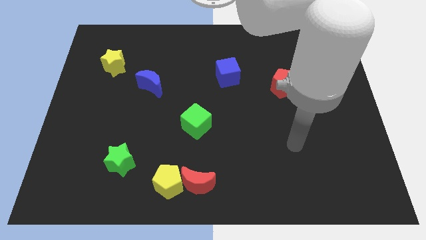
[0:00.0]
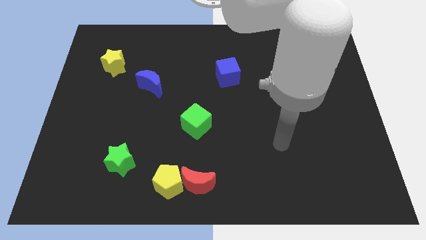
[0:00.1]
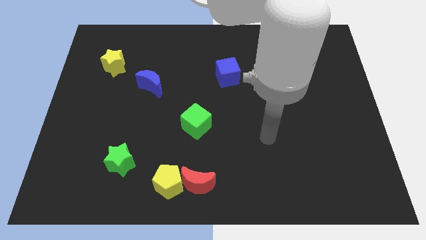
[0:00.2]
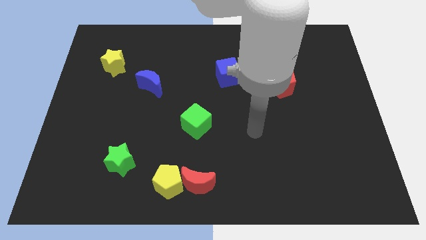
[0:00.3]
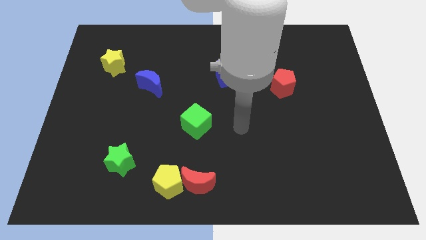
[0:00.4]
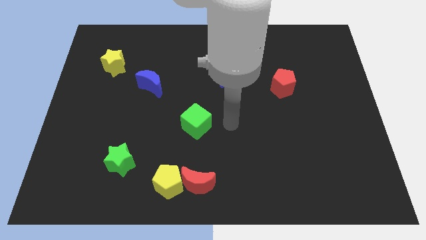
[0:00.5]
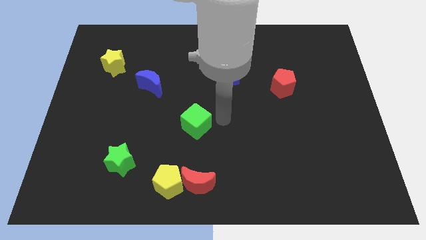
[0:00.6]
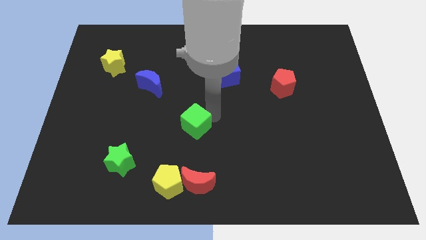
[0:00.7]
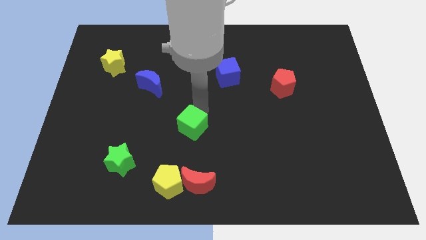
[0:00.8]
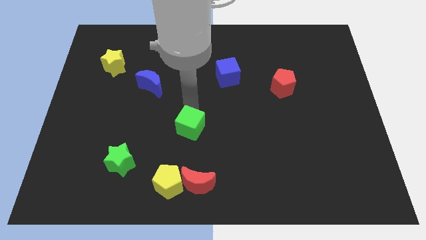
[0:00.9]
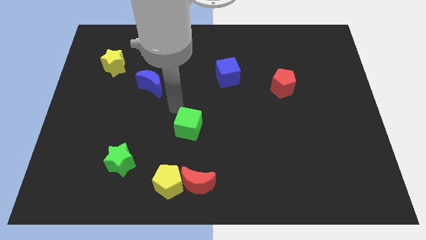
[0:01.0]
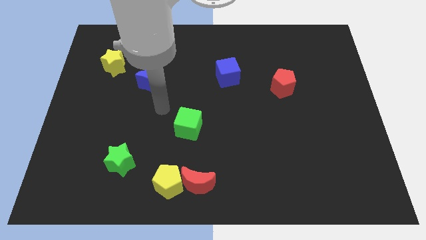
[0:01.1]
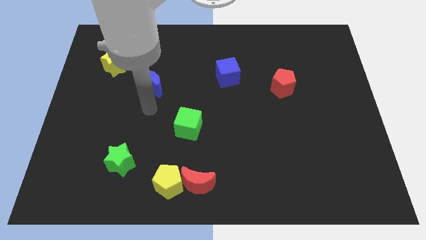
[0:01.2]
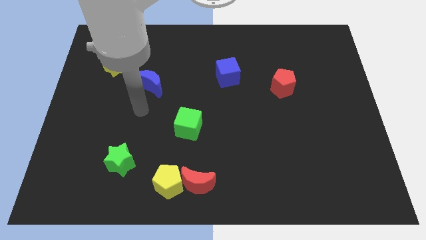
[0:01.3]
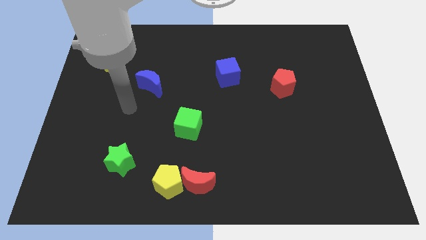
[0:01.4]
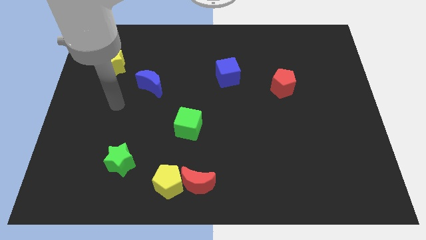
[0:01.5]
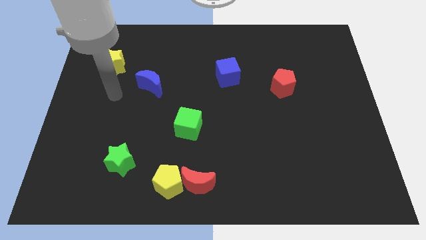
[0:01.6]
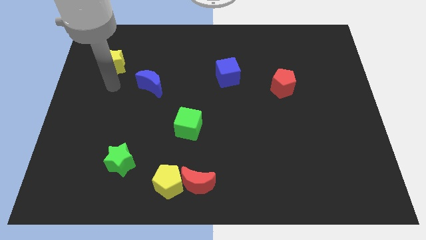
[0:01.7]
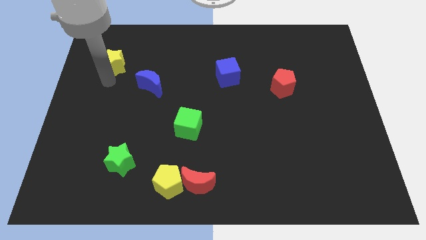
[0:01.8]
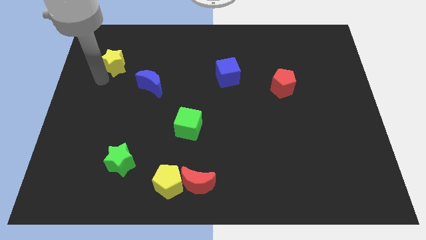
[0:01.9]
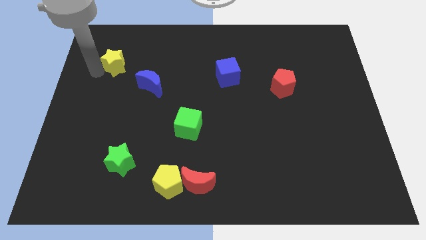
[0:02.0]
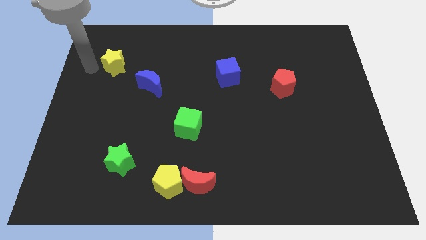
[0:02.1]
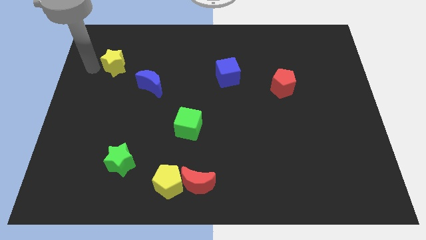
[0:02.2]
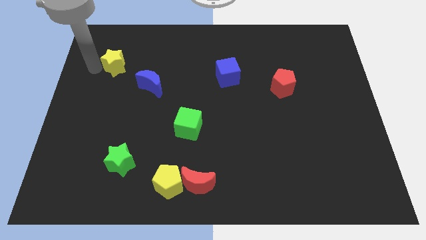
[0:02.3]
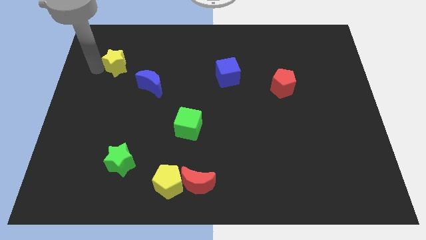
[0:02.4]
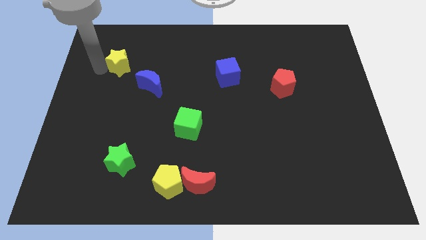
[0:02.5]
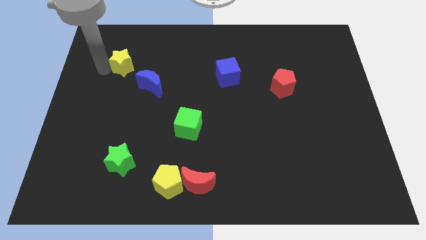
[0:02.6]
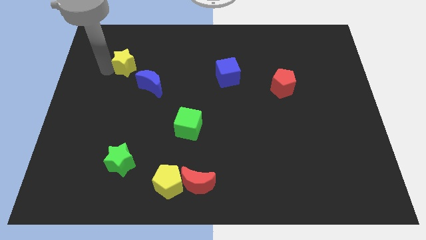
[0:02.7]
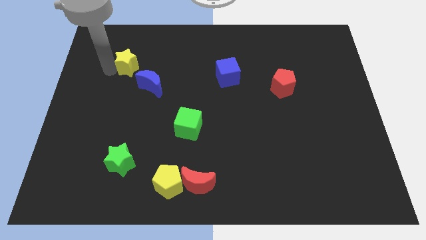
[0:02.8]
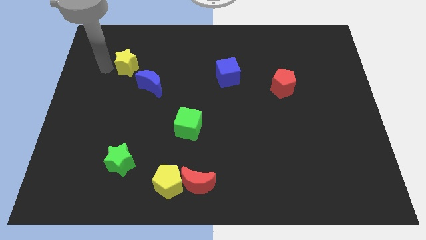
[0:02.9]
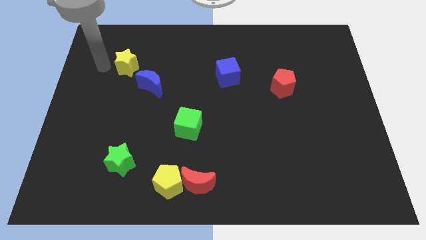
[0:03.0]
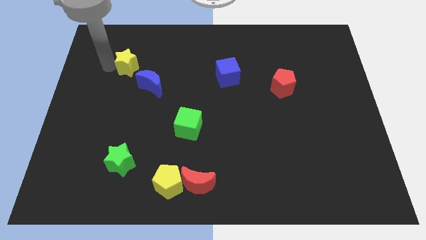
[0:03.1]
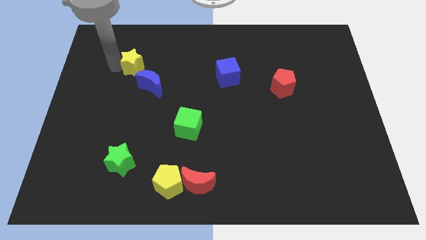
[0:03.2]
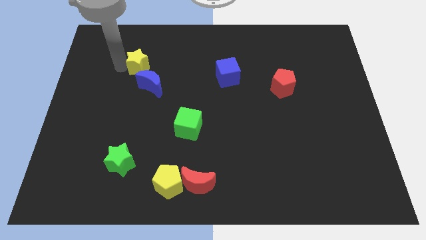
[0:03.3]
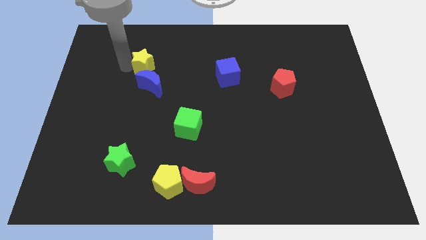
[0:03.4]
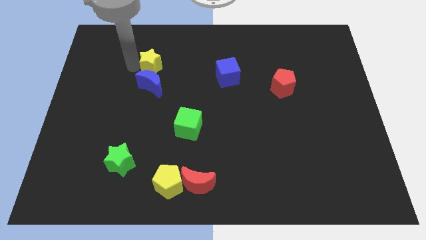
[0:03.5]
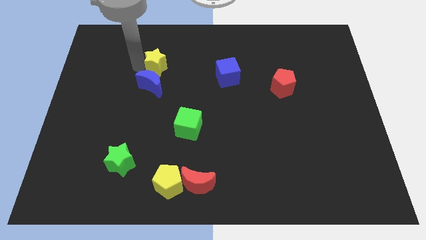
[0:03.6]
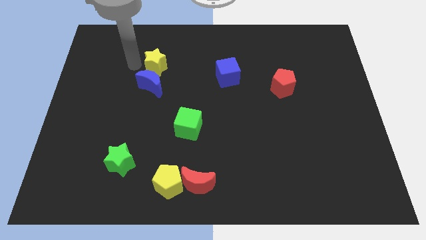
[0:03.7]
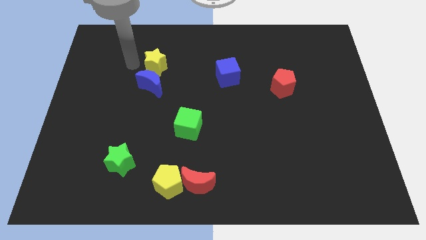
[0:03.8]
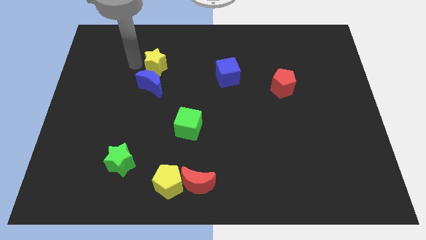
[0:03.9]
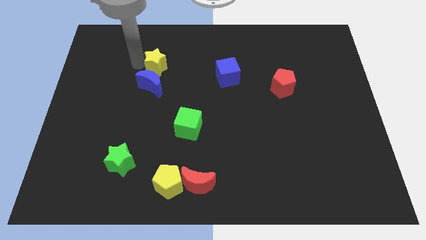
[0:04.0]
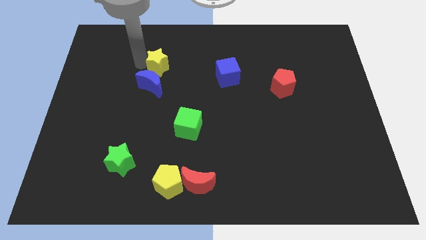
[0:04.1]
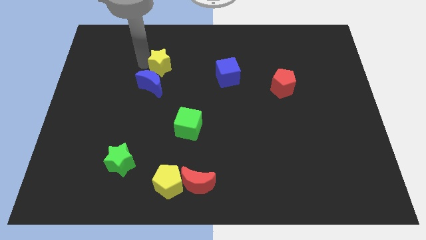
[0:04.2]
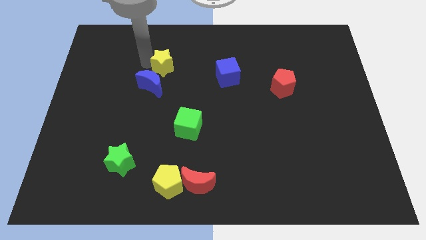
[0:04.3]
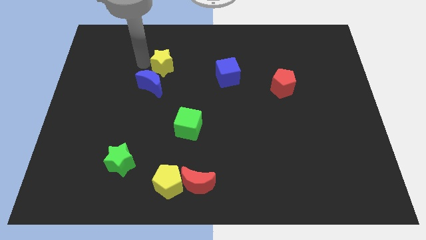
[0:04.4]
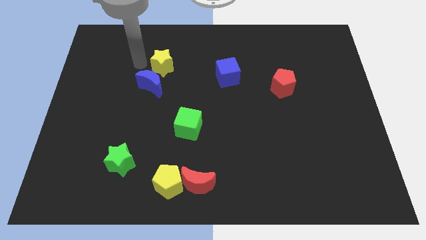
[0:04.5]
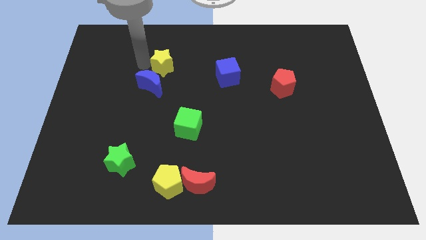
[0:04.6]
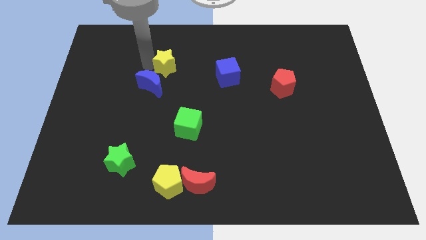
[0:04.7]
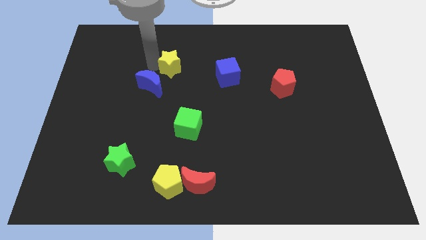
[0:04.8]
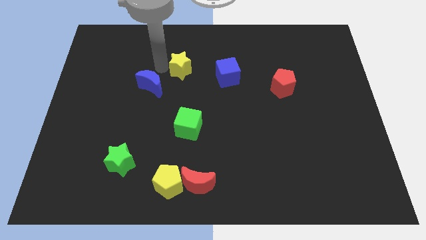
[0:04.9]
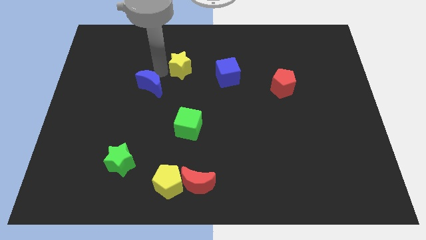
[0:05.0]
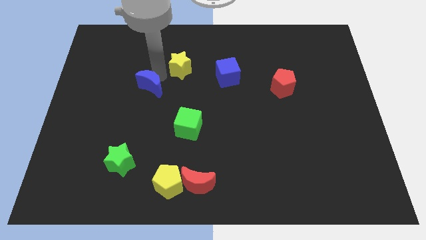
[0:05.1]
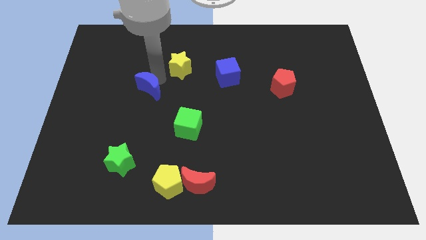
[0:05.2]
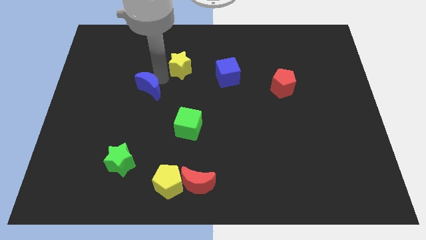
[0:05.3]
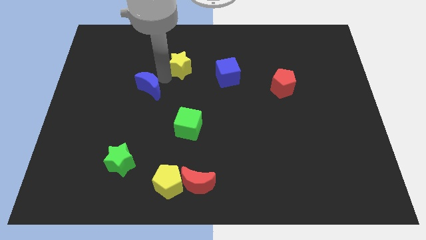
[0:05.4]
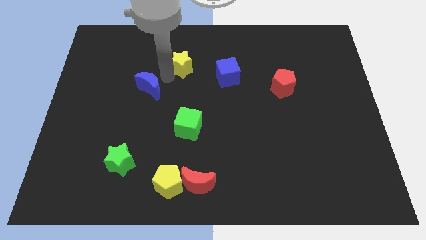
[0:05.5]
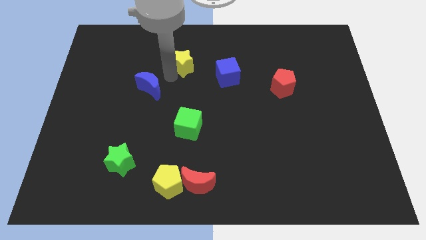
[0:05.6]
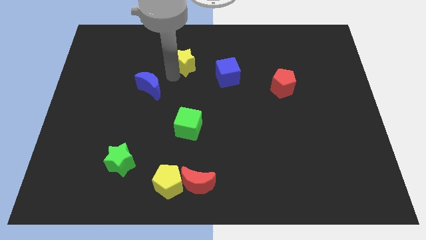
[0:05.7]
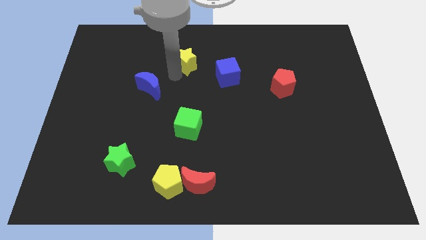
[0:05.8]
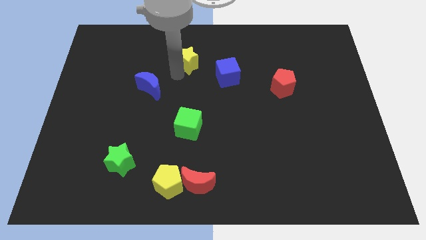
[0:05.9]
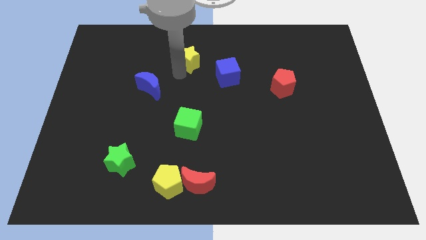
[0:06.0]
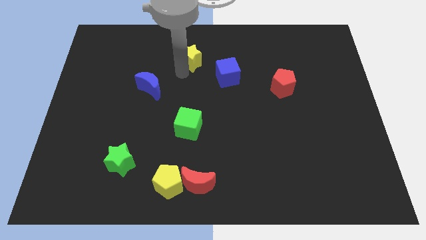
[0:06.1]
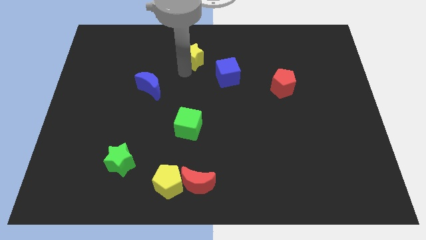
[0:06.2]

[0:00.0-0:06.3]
push the yellow star right

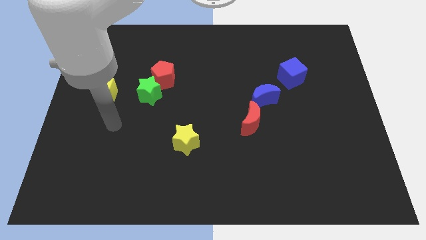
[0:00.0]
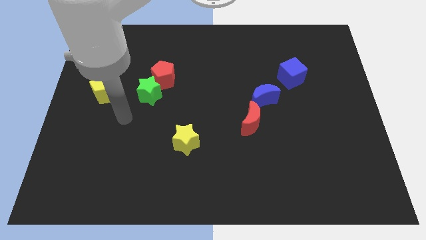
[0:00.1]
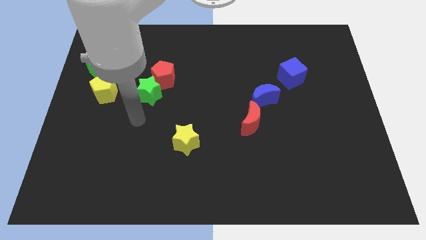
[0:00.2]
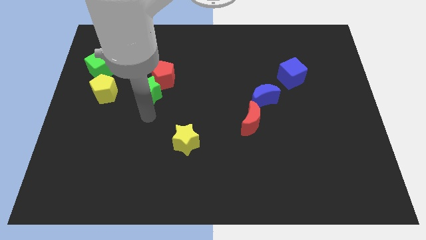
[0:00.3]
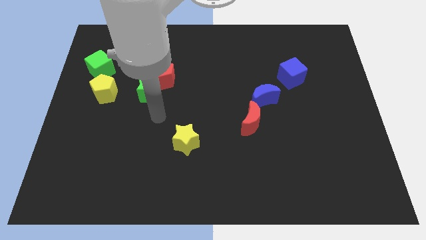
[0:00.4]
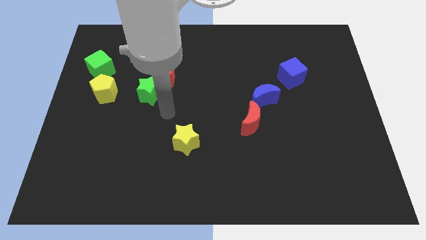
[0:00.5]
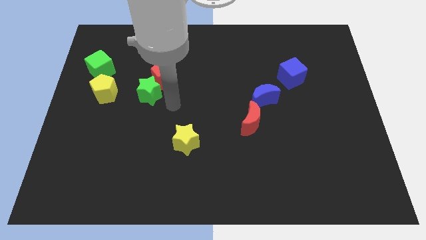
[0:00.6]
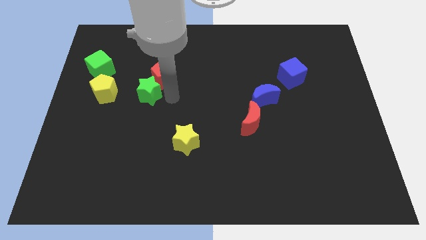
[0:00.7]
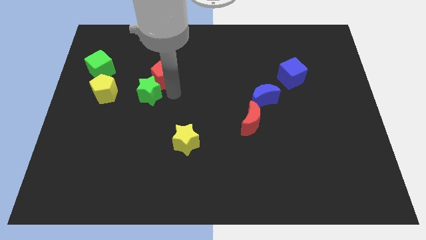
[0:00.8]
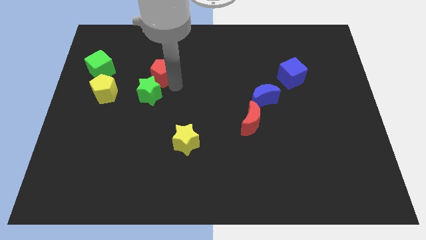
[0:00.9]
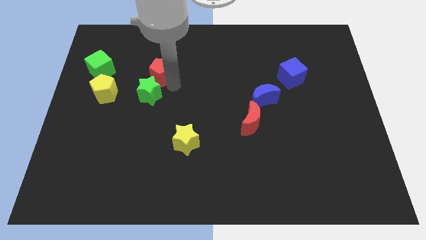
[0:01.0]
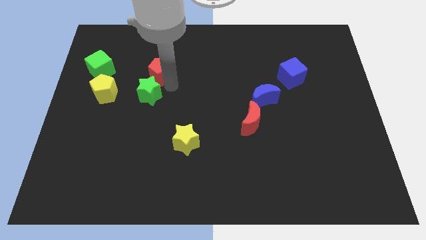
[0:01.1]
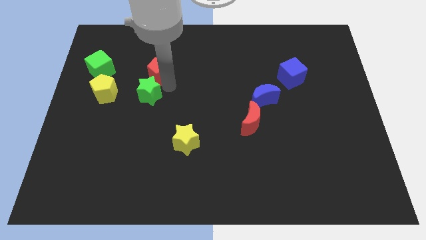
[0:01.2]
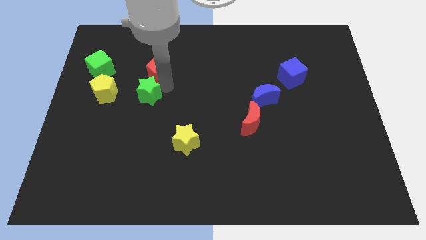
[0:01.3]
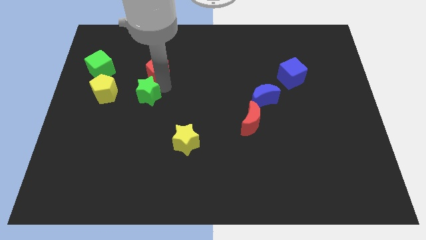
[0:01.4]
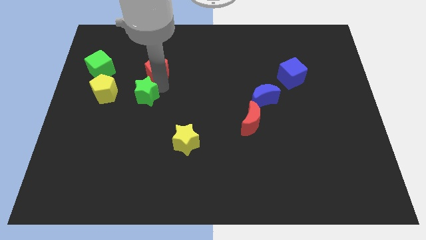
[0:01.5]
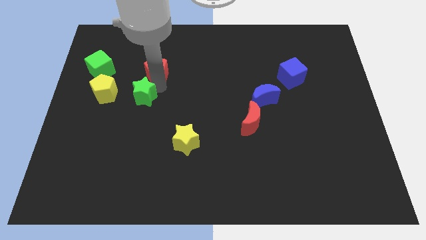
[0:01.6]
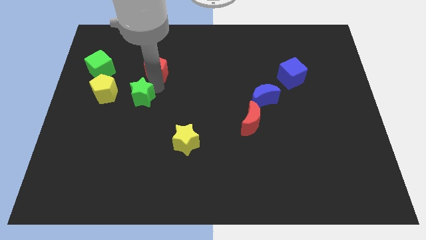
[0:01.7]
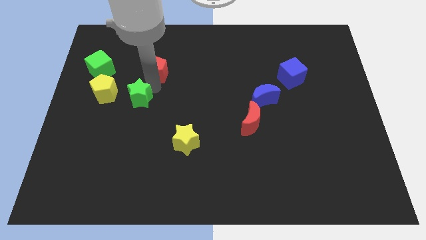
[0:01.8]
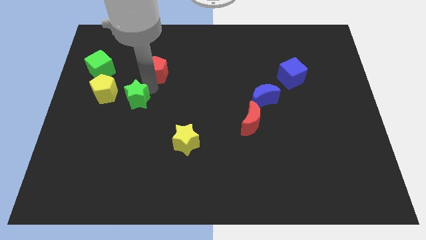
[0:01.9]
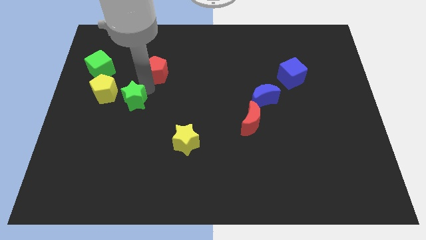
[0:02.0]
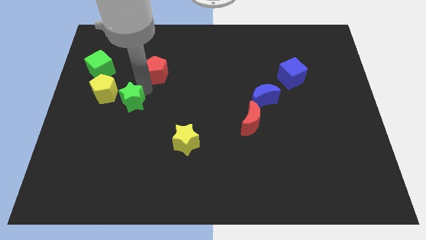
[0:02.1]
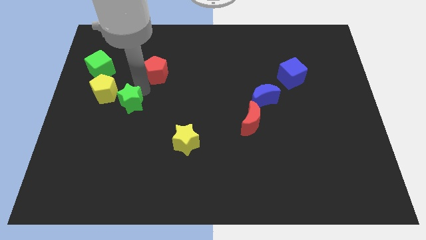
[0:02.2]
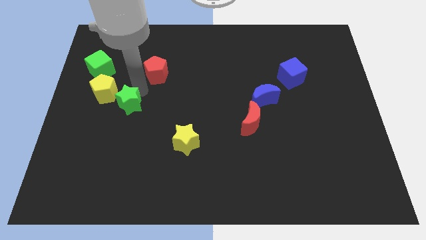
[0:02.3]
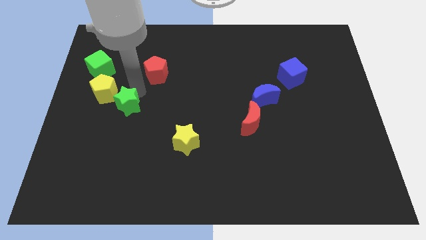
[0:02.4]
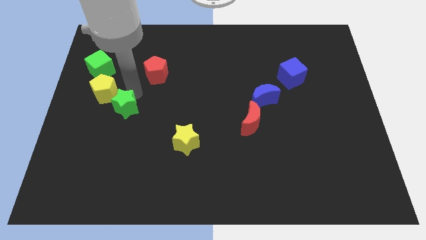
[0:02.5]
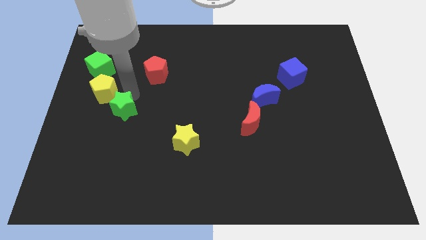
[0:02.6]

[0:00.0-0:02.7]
push the green star a little bit down and left
